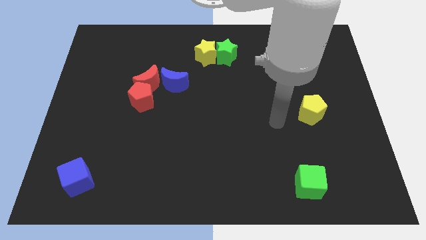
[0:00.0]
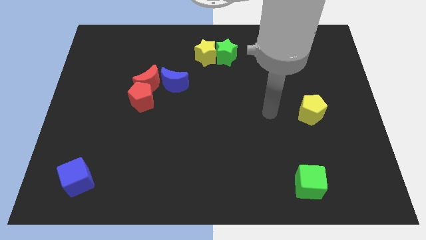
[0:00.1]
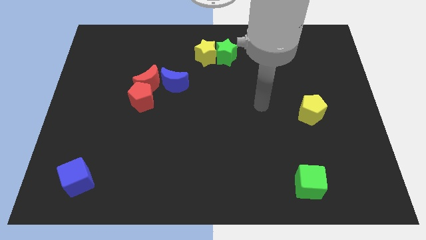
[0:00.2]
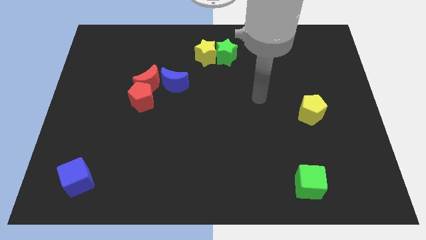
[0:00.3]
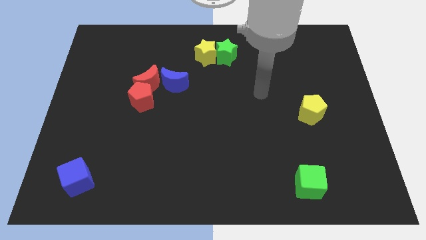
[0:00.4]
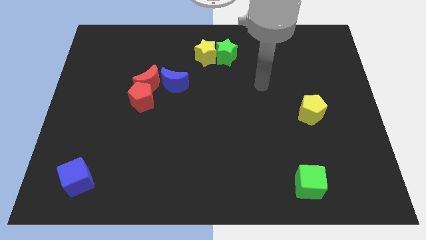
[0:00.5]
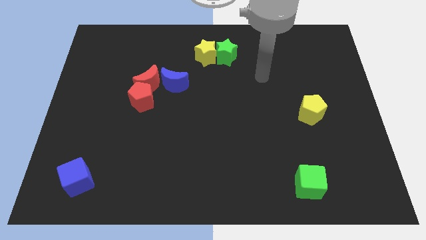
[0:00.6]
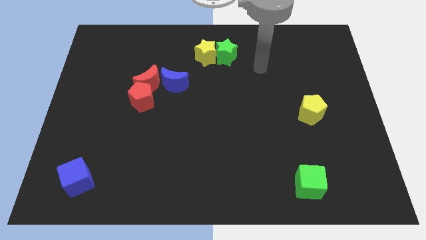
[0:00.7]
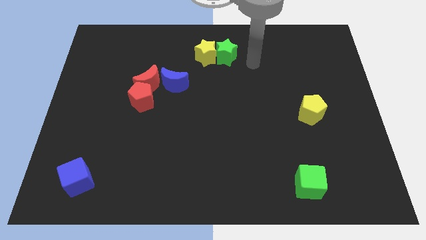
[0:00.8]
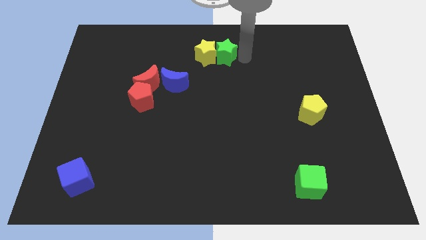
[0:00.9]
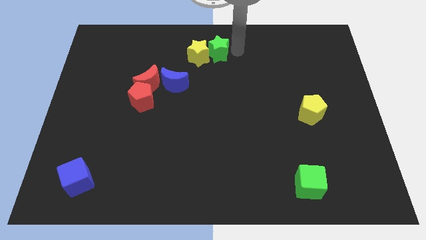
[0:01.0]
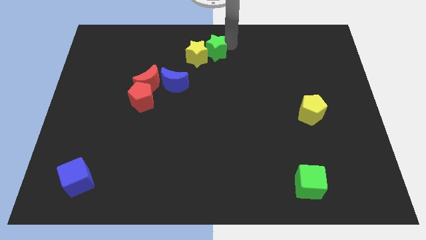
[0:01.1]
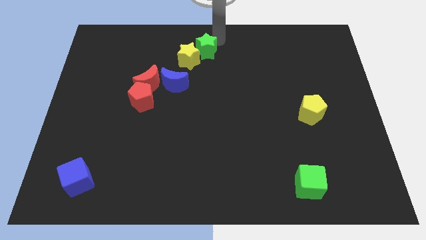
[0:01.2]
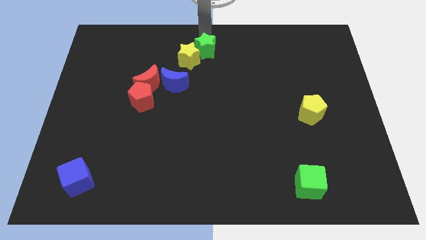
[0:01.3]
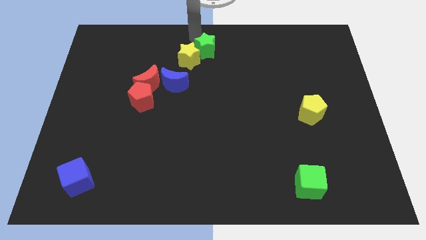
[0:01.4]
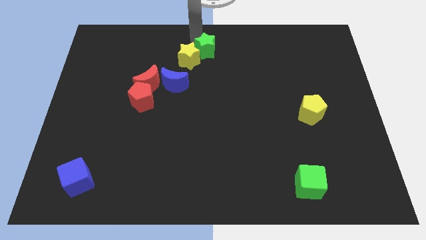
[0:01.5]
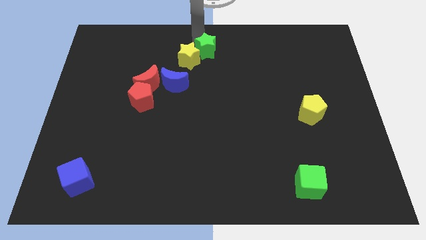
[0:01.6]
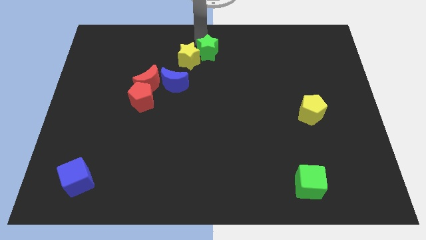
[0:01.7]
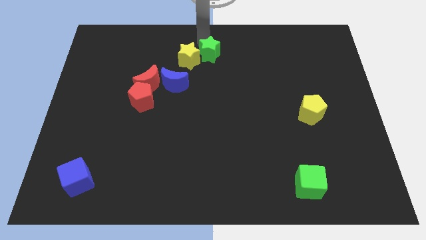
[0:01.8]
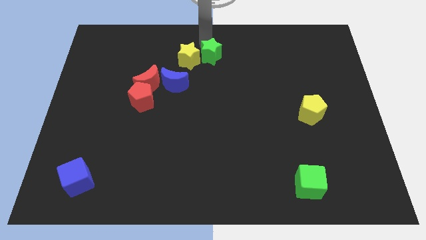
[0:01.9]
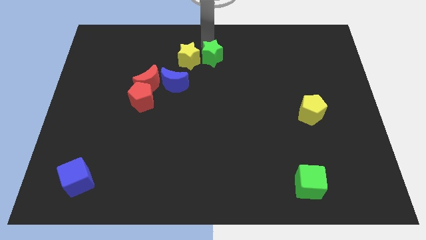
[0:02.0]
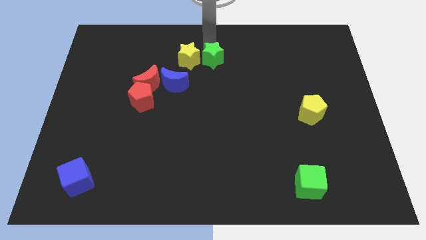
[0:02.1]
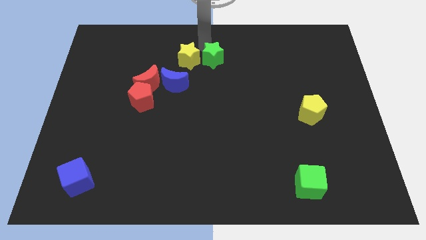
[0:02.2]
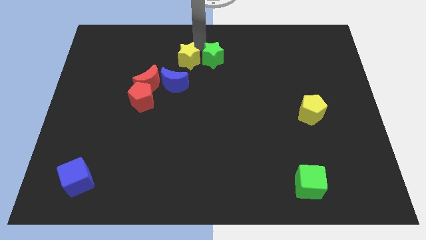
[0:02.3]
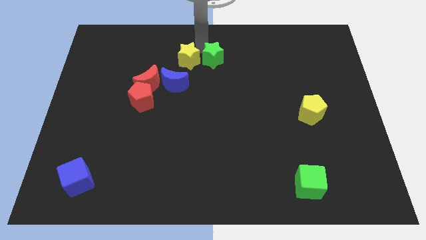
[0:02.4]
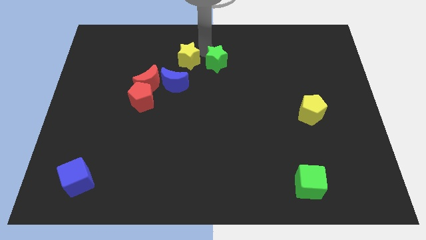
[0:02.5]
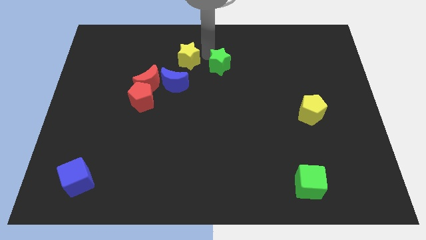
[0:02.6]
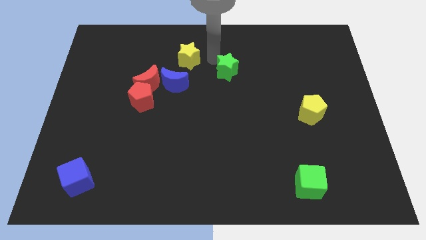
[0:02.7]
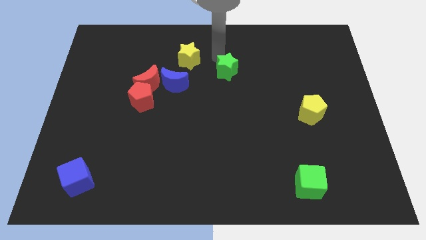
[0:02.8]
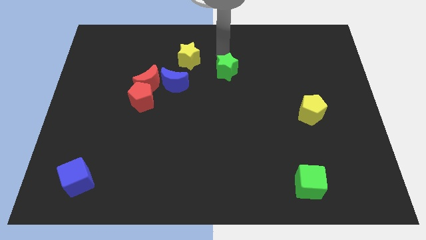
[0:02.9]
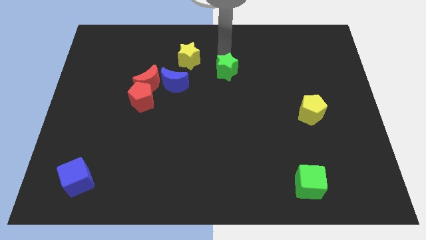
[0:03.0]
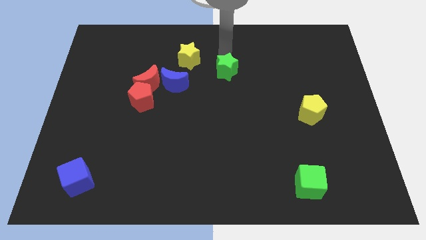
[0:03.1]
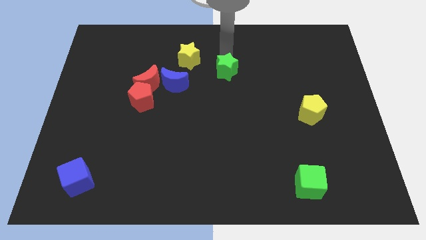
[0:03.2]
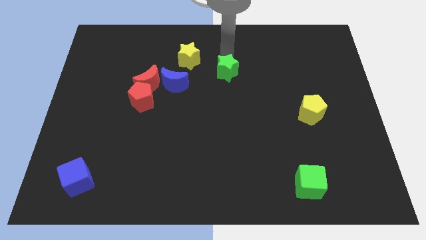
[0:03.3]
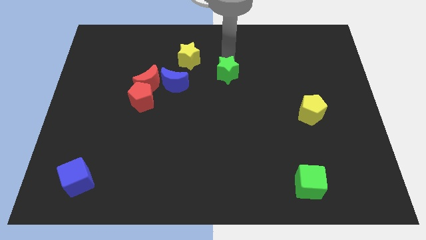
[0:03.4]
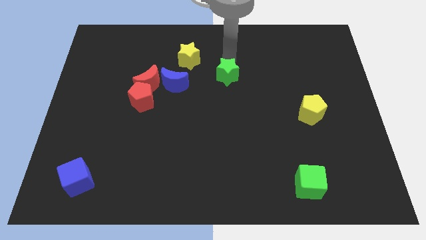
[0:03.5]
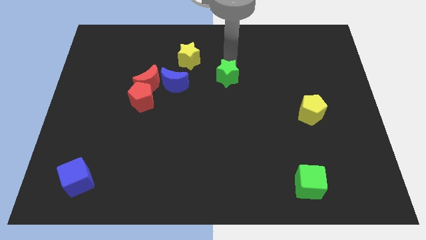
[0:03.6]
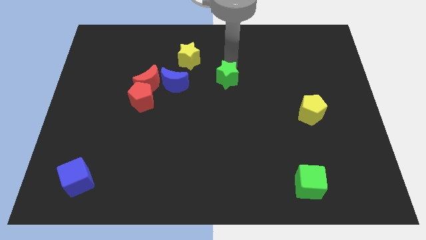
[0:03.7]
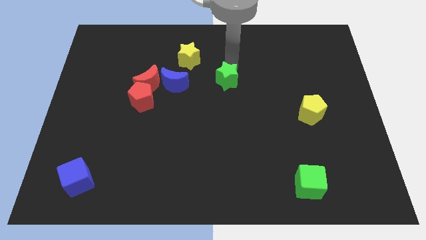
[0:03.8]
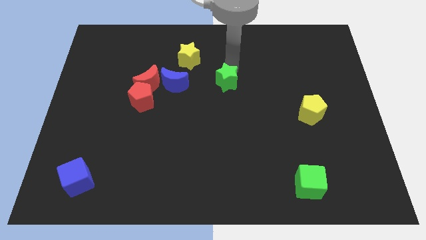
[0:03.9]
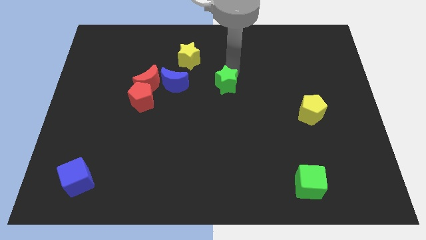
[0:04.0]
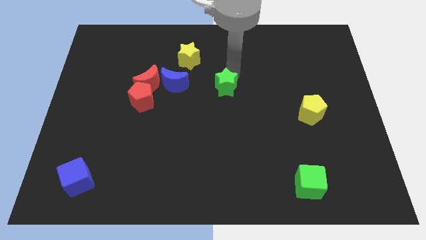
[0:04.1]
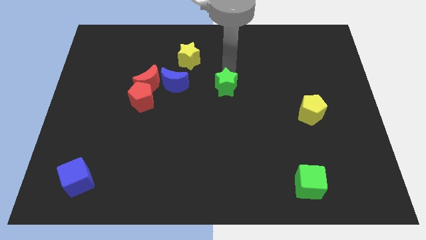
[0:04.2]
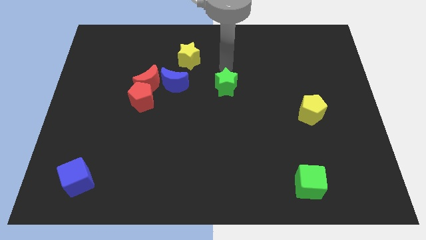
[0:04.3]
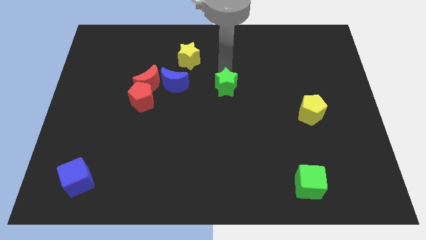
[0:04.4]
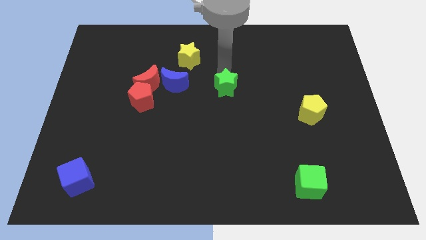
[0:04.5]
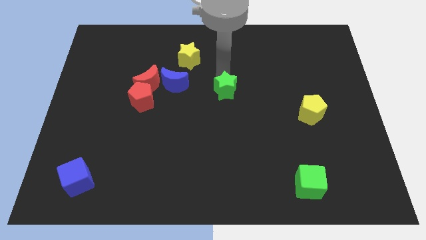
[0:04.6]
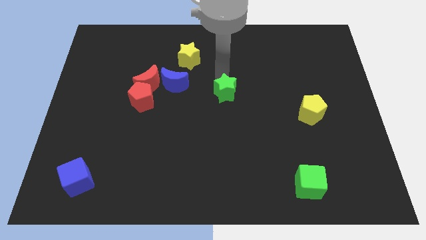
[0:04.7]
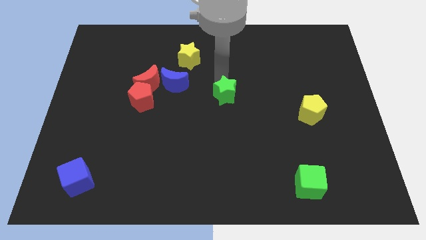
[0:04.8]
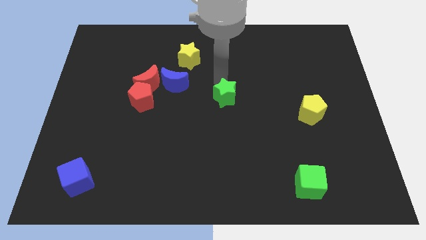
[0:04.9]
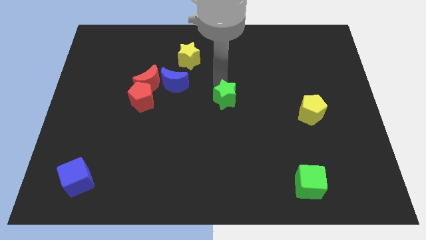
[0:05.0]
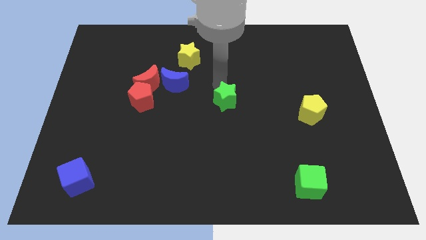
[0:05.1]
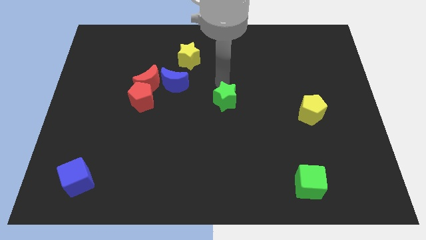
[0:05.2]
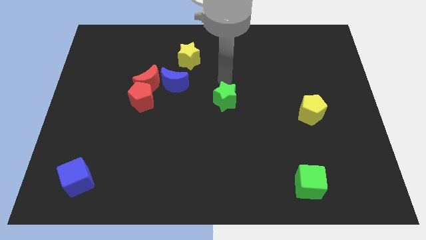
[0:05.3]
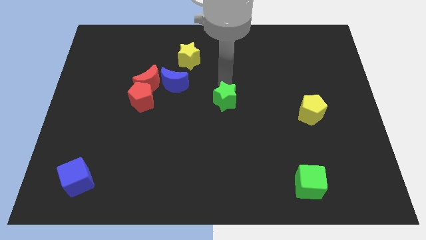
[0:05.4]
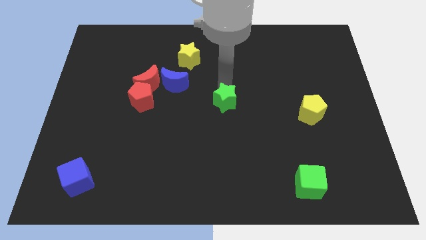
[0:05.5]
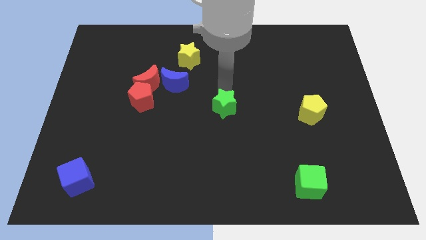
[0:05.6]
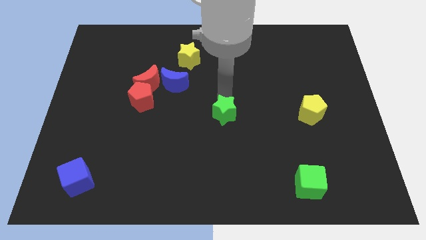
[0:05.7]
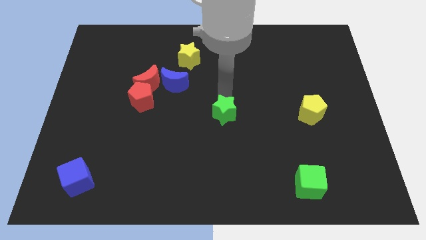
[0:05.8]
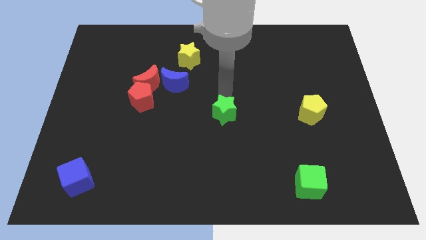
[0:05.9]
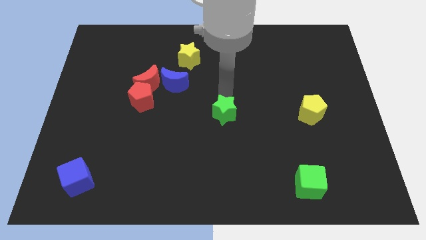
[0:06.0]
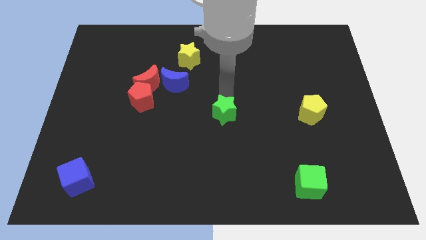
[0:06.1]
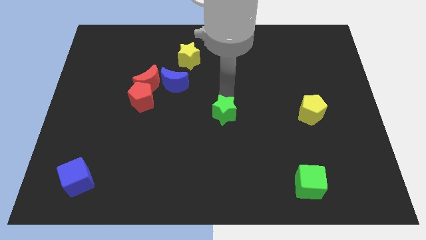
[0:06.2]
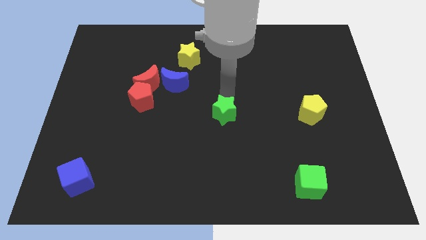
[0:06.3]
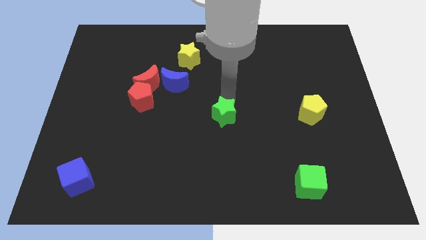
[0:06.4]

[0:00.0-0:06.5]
push the green star downwards

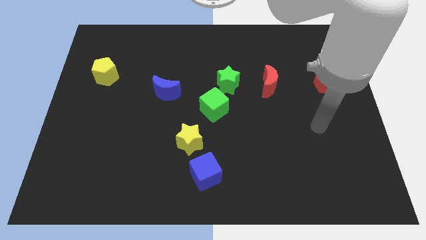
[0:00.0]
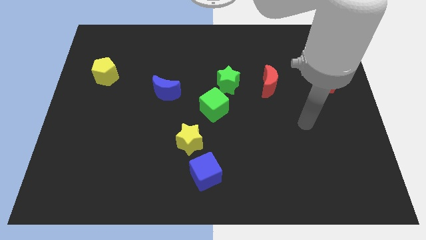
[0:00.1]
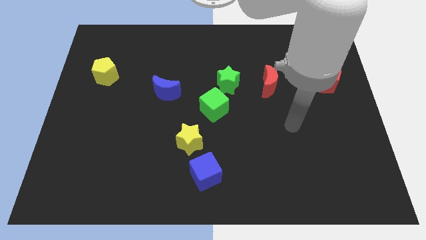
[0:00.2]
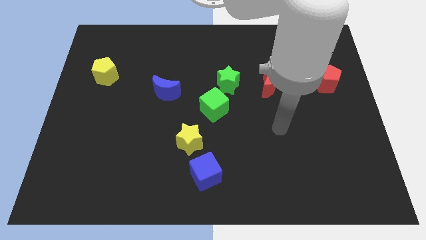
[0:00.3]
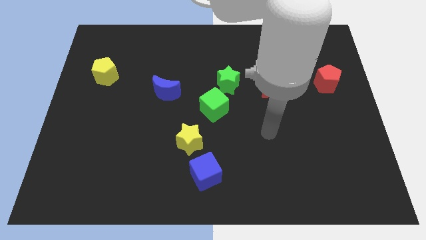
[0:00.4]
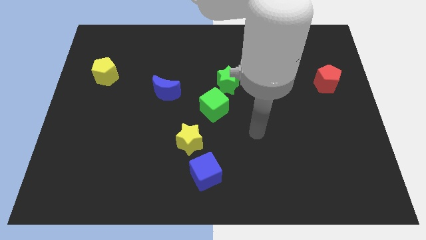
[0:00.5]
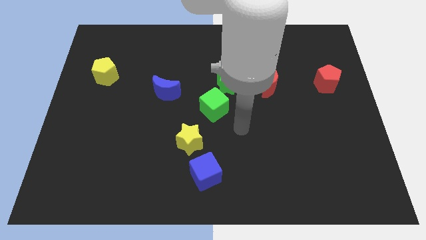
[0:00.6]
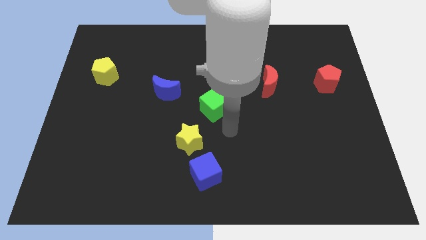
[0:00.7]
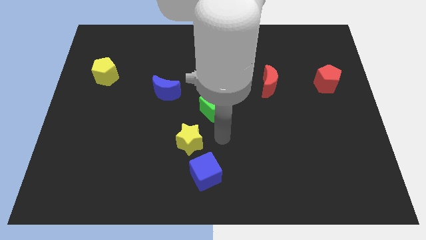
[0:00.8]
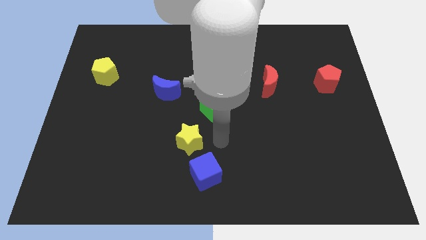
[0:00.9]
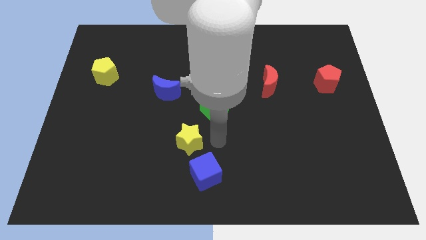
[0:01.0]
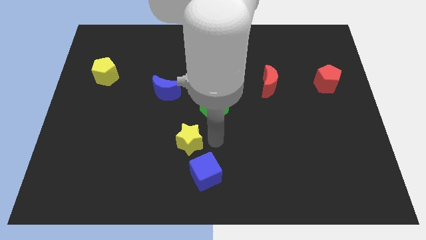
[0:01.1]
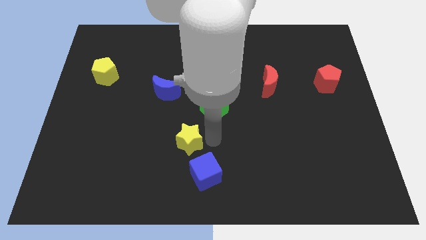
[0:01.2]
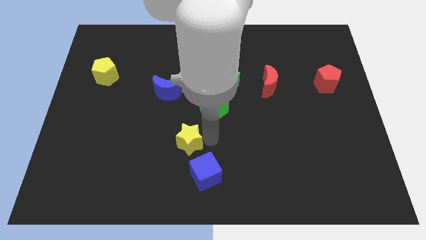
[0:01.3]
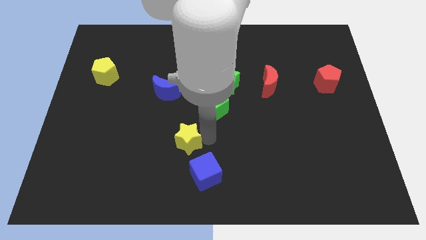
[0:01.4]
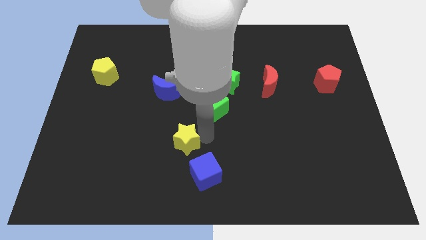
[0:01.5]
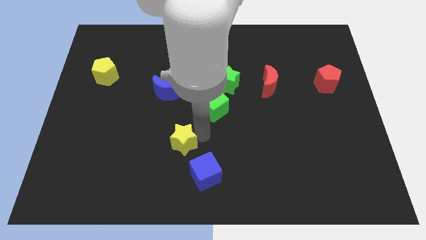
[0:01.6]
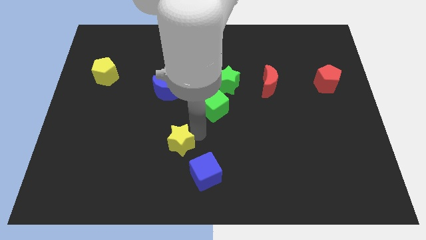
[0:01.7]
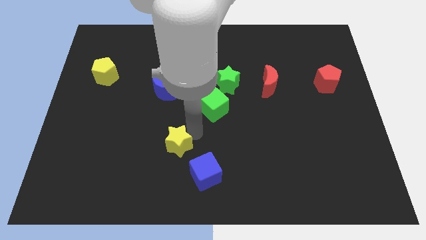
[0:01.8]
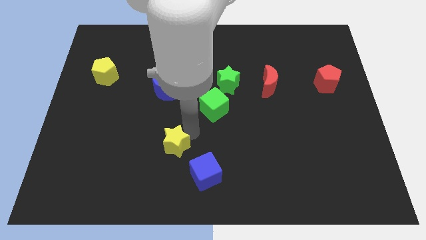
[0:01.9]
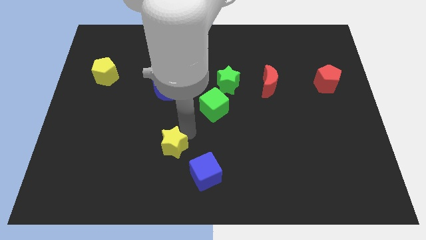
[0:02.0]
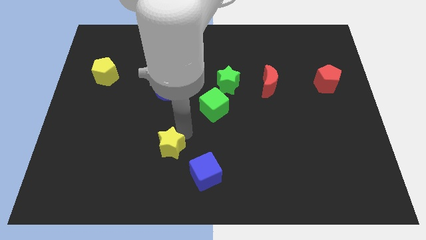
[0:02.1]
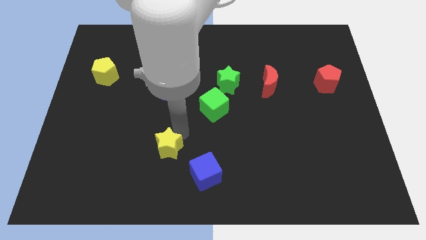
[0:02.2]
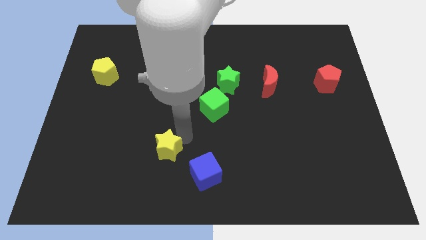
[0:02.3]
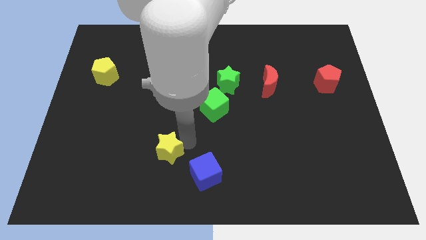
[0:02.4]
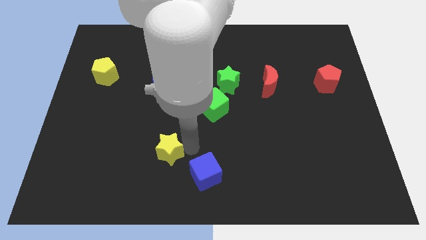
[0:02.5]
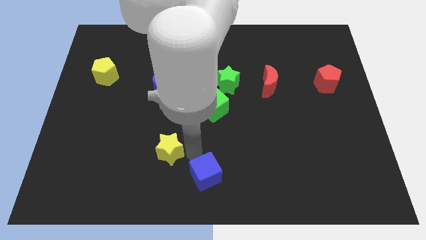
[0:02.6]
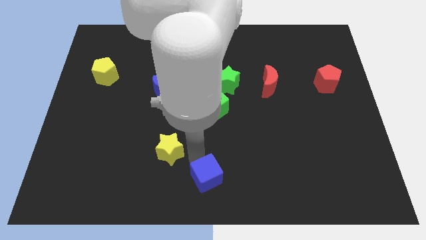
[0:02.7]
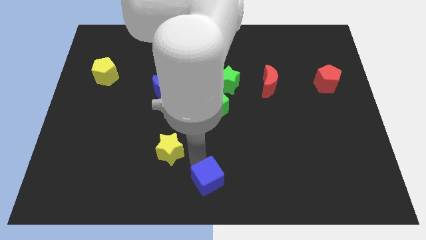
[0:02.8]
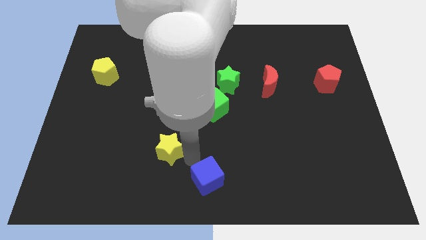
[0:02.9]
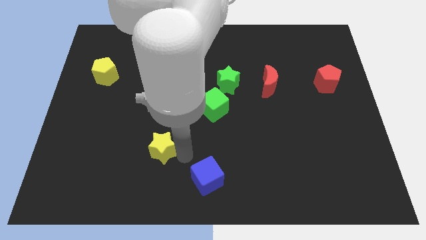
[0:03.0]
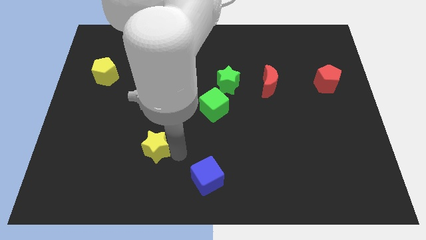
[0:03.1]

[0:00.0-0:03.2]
slide the yellow star left a little
